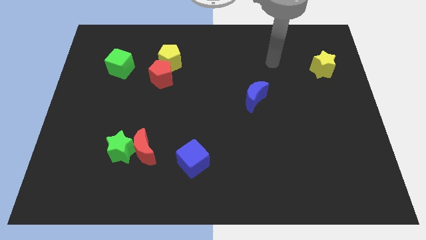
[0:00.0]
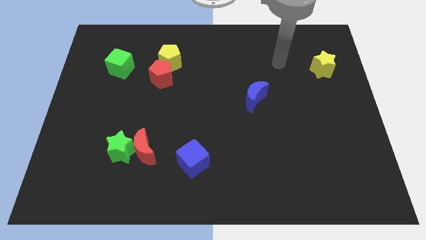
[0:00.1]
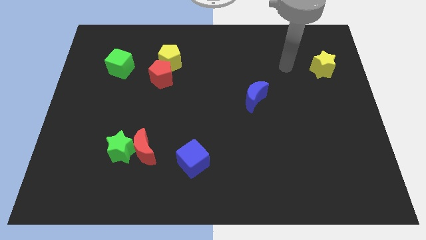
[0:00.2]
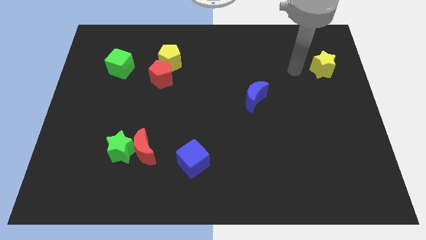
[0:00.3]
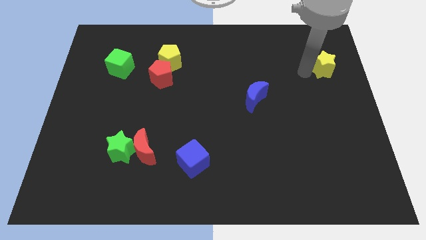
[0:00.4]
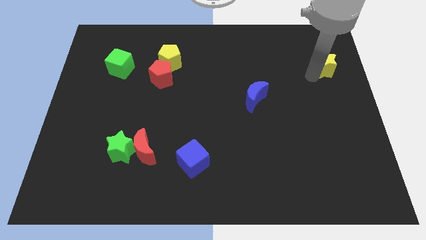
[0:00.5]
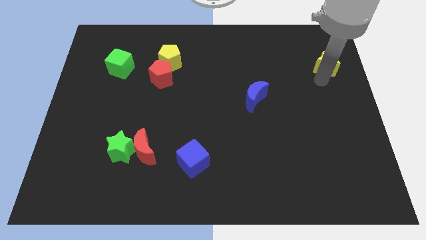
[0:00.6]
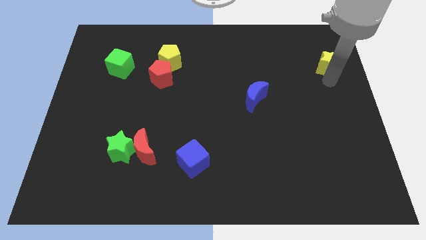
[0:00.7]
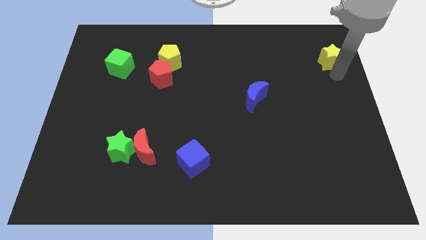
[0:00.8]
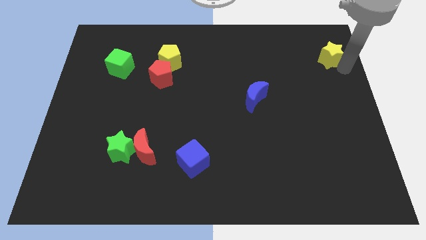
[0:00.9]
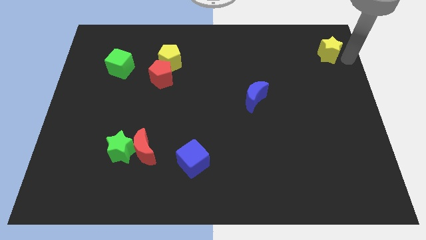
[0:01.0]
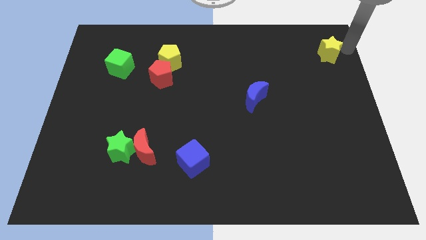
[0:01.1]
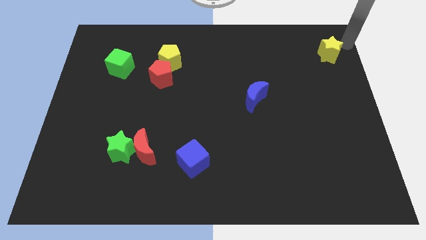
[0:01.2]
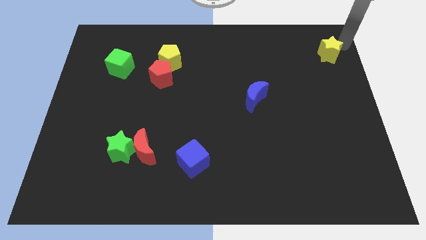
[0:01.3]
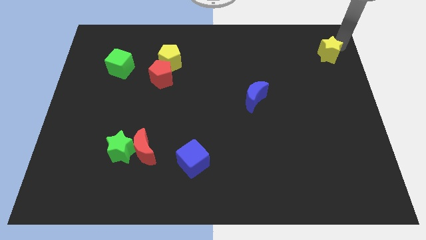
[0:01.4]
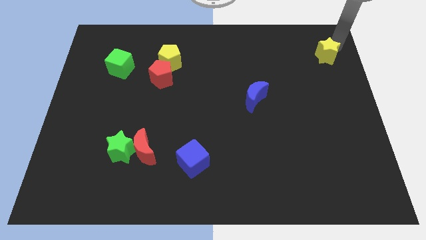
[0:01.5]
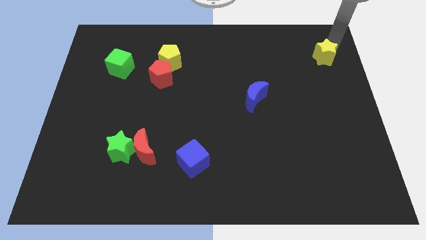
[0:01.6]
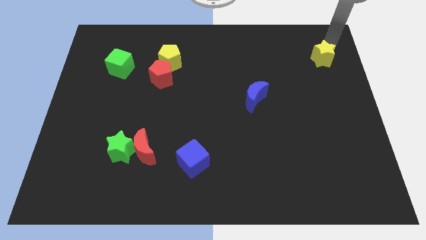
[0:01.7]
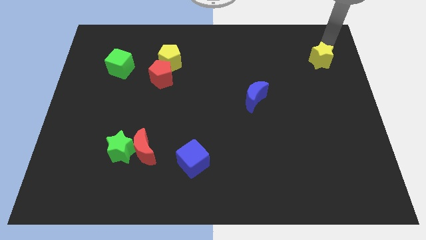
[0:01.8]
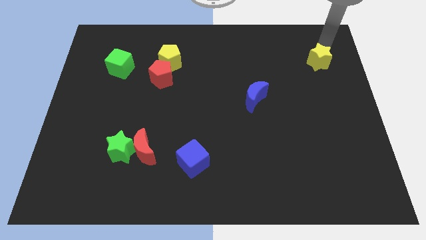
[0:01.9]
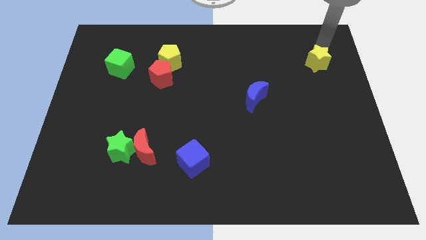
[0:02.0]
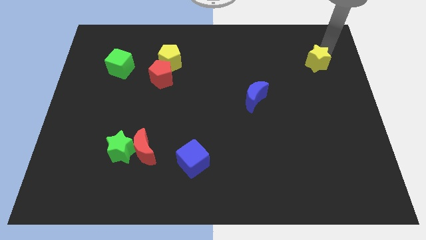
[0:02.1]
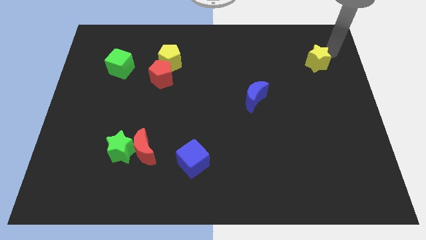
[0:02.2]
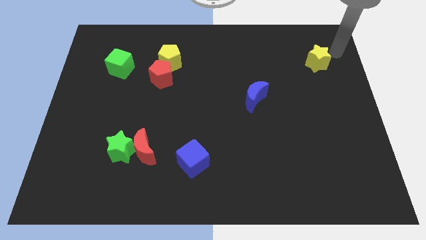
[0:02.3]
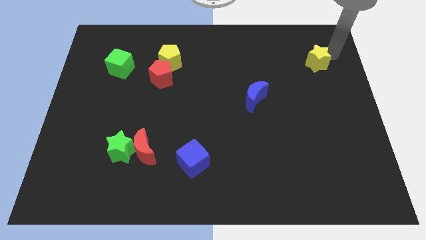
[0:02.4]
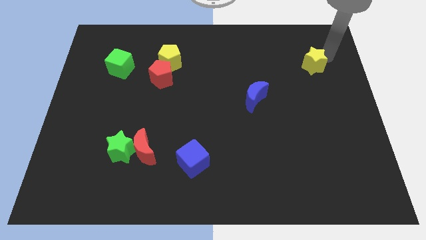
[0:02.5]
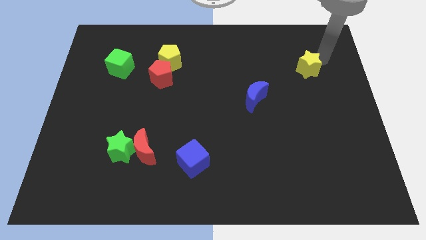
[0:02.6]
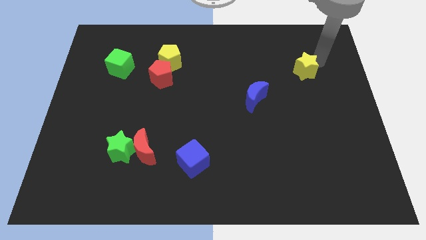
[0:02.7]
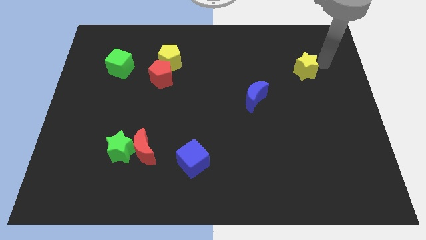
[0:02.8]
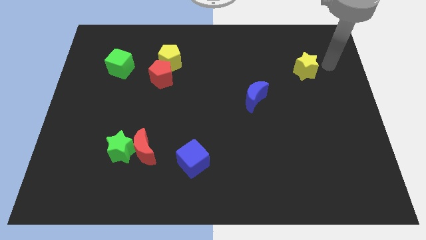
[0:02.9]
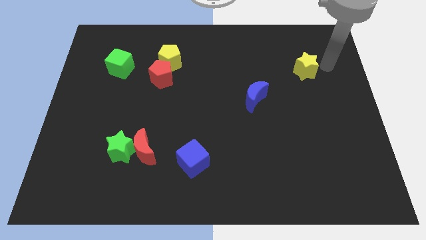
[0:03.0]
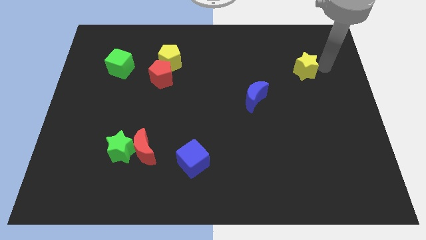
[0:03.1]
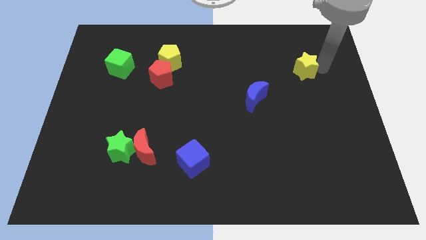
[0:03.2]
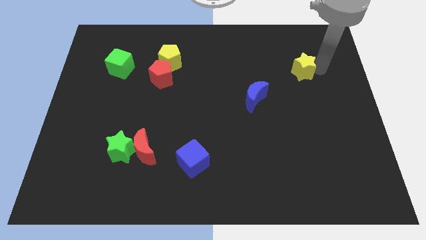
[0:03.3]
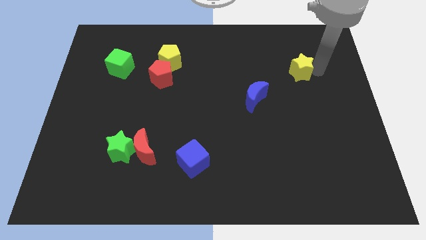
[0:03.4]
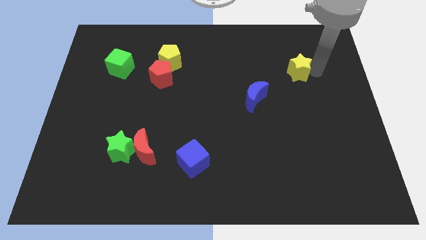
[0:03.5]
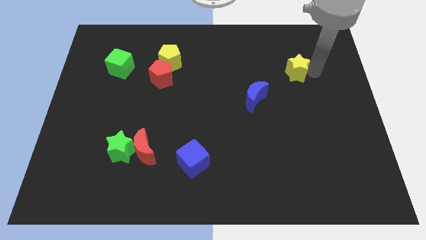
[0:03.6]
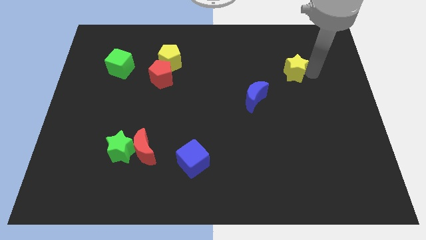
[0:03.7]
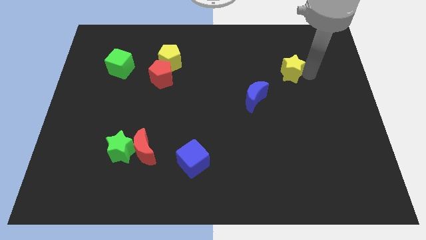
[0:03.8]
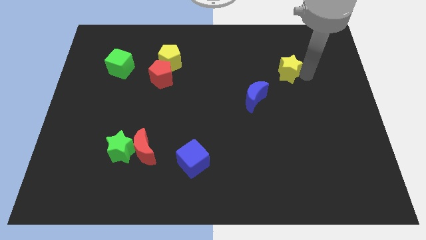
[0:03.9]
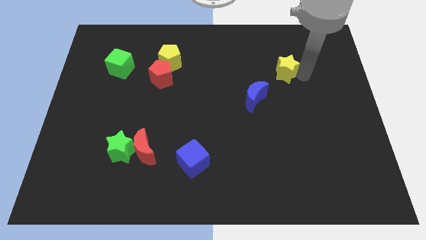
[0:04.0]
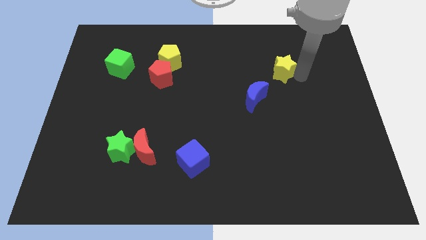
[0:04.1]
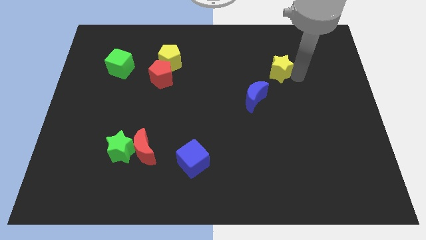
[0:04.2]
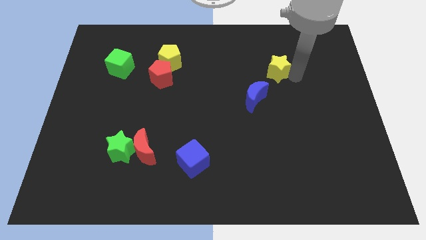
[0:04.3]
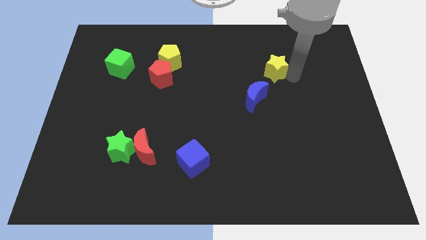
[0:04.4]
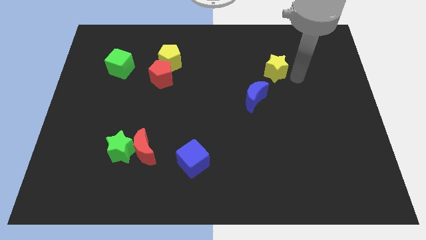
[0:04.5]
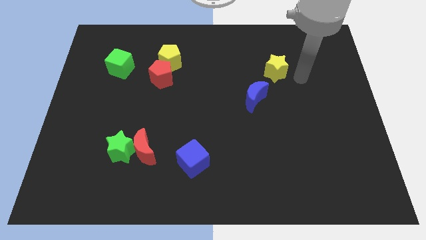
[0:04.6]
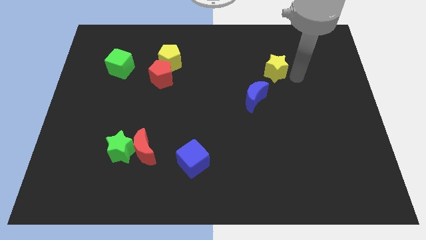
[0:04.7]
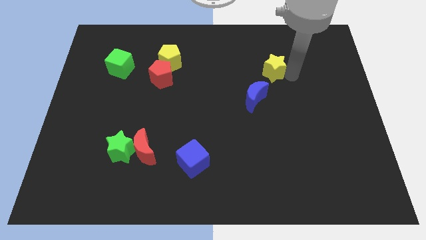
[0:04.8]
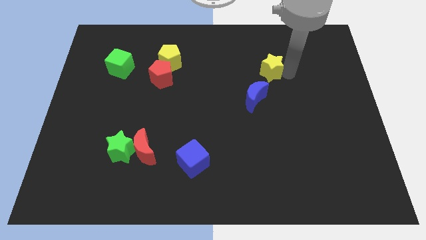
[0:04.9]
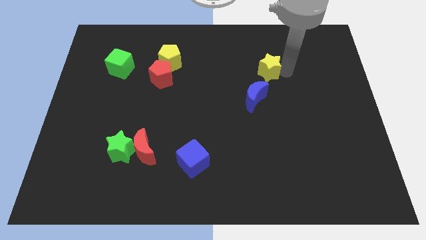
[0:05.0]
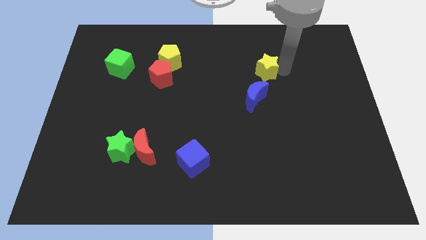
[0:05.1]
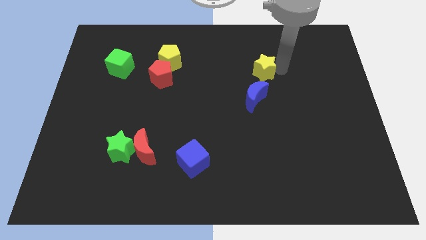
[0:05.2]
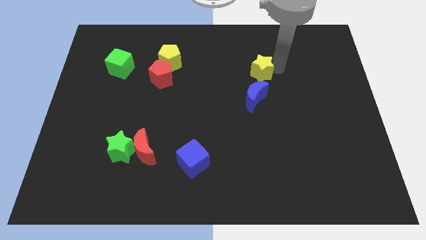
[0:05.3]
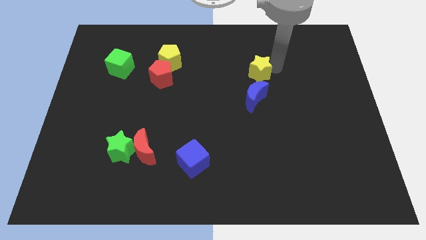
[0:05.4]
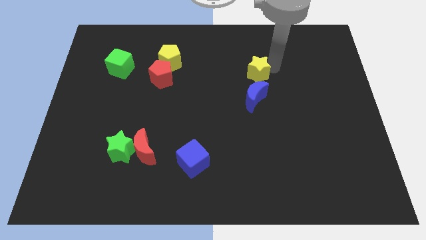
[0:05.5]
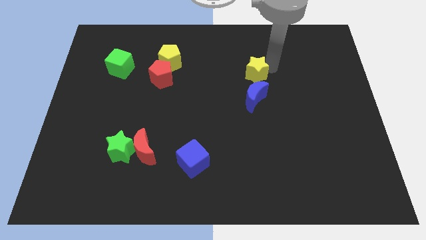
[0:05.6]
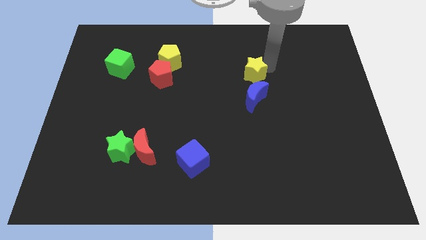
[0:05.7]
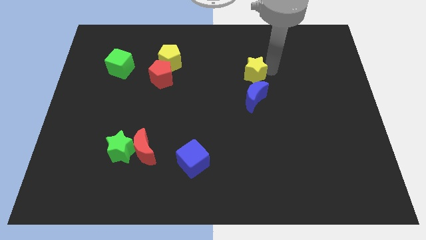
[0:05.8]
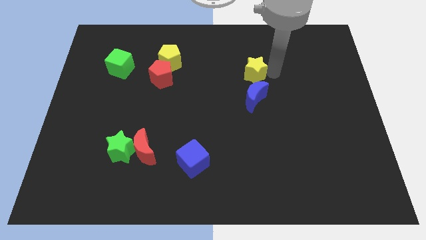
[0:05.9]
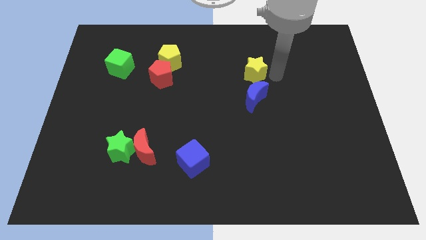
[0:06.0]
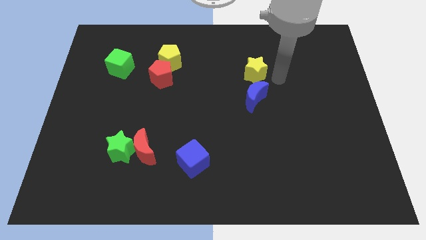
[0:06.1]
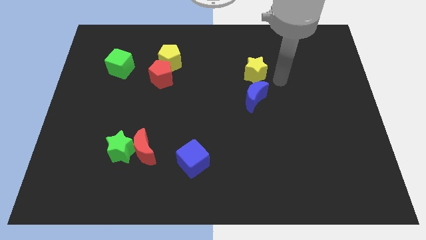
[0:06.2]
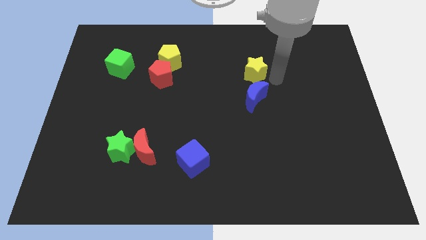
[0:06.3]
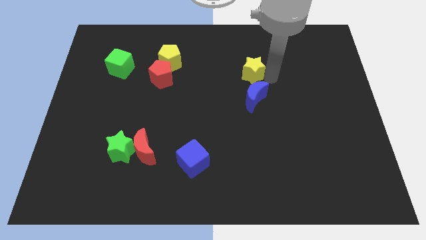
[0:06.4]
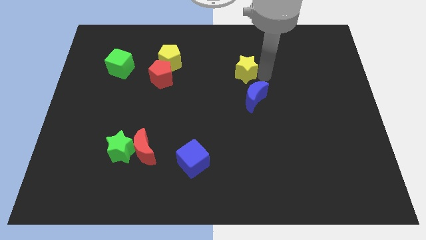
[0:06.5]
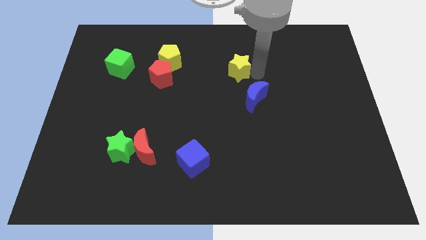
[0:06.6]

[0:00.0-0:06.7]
push the yellow star left

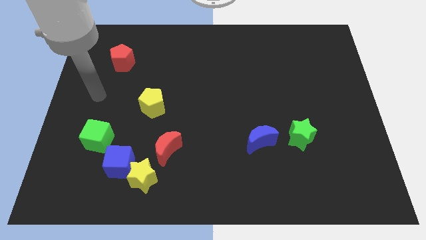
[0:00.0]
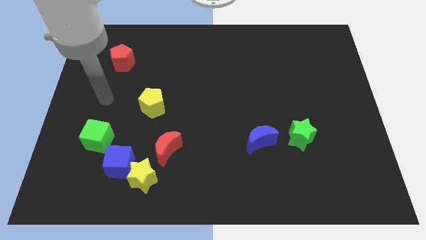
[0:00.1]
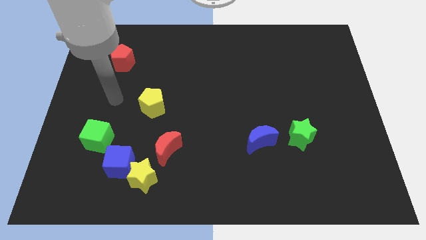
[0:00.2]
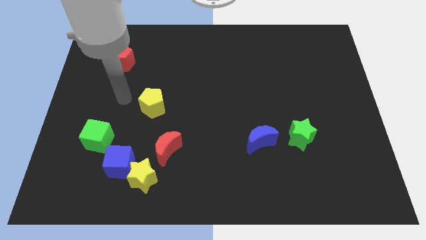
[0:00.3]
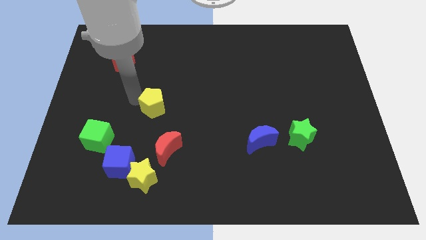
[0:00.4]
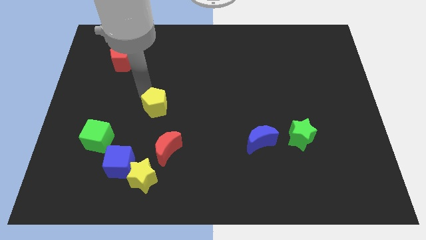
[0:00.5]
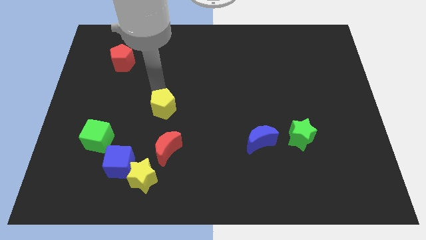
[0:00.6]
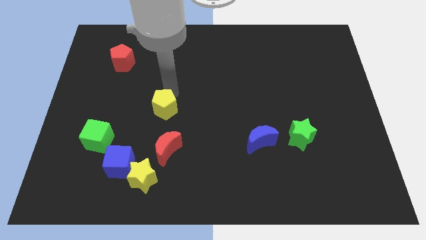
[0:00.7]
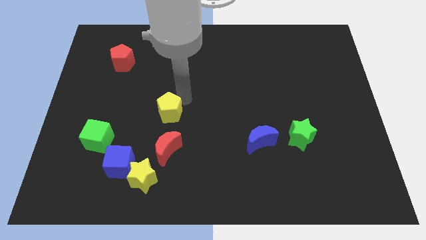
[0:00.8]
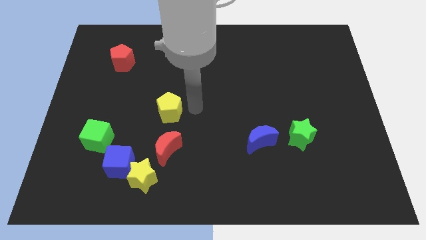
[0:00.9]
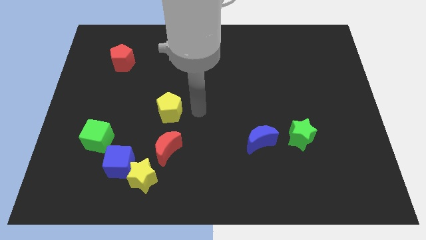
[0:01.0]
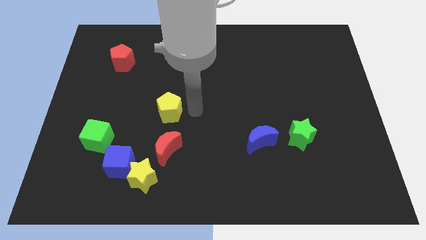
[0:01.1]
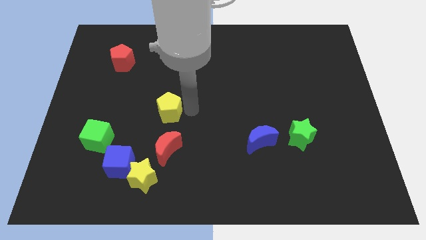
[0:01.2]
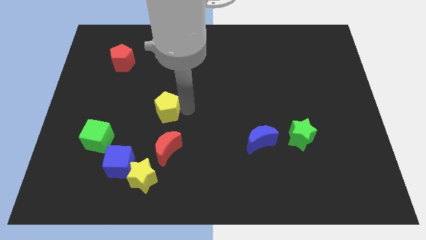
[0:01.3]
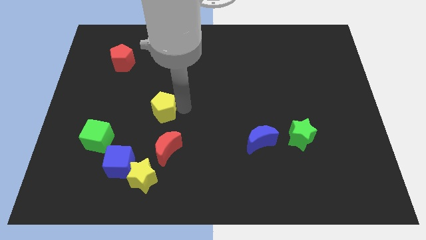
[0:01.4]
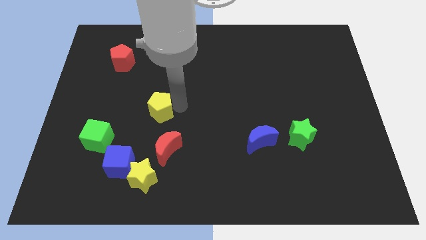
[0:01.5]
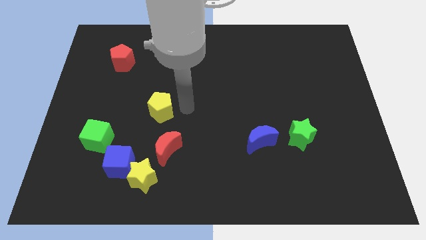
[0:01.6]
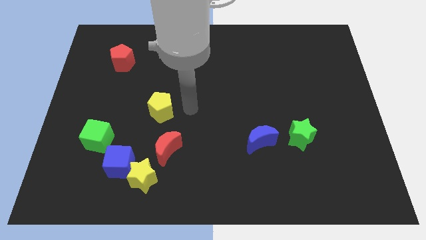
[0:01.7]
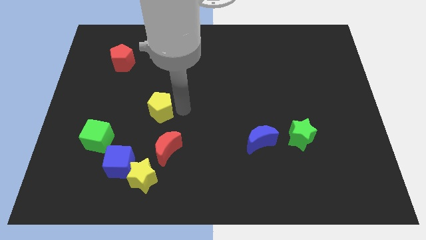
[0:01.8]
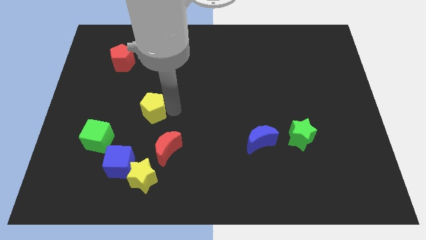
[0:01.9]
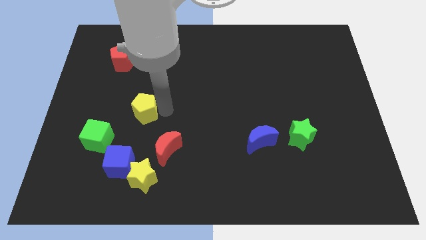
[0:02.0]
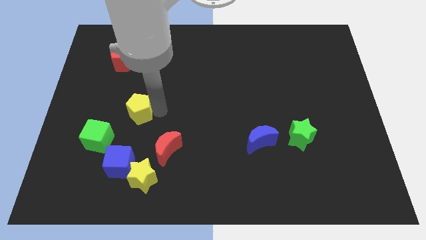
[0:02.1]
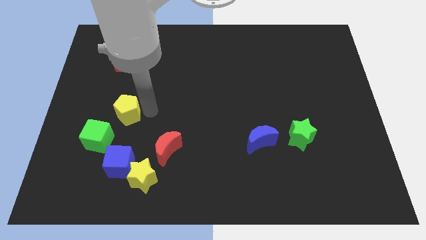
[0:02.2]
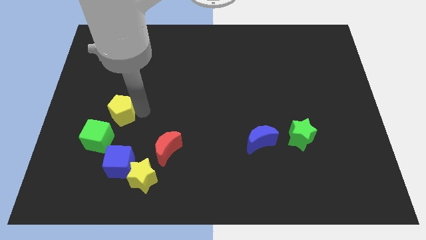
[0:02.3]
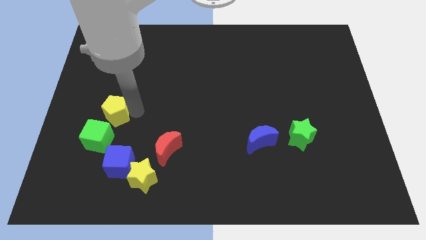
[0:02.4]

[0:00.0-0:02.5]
move the yellow pentagon diagonally downwards and left somewhat
